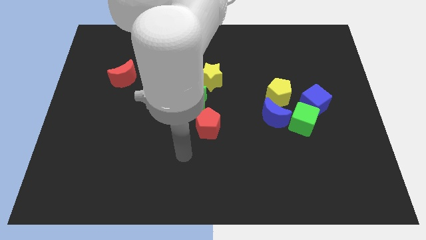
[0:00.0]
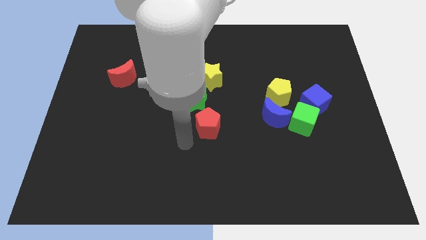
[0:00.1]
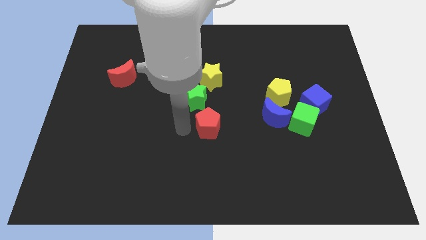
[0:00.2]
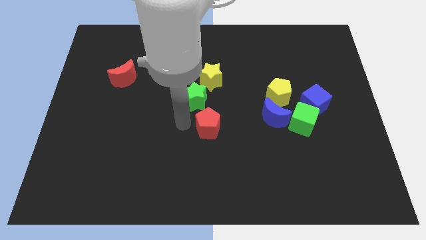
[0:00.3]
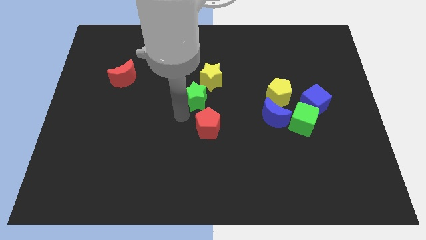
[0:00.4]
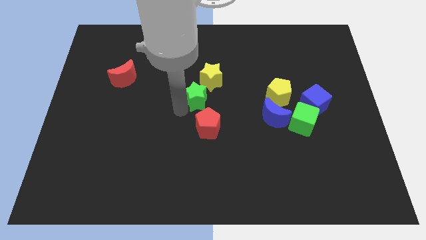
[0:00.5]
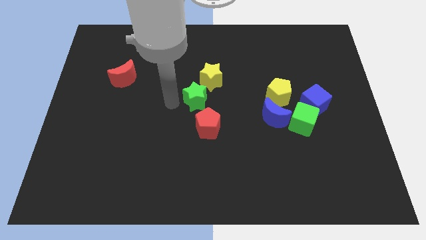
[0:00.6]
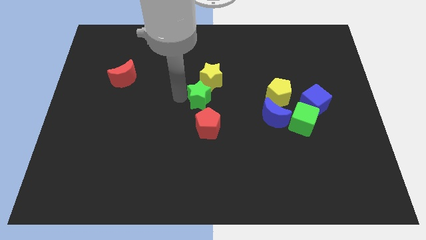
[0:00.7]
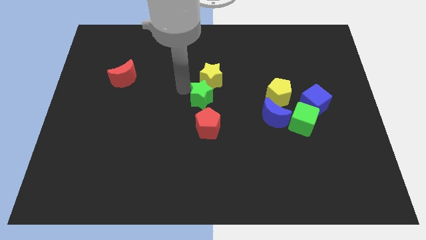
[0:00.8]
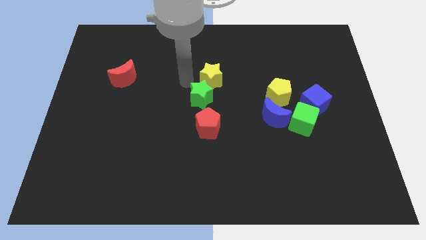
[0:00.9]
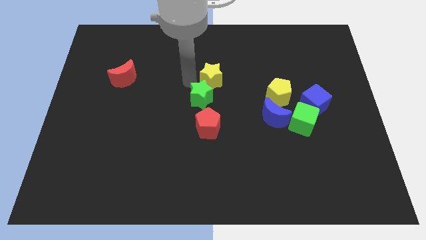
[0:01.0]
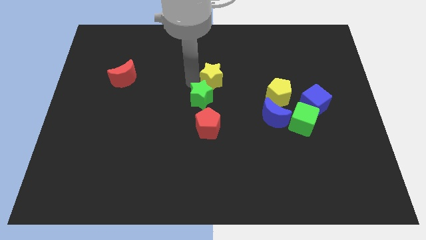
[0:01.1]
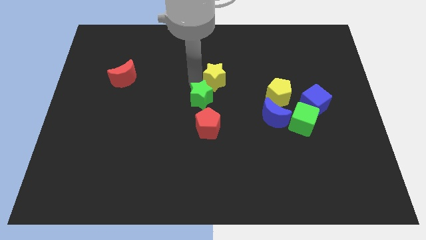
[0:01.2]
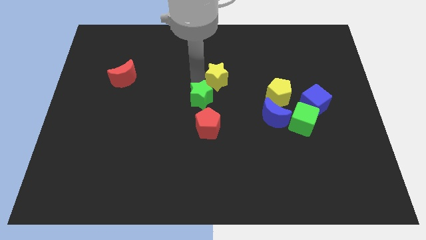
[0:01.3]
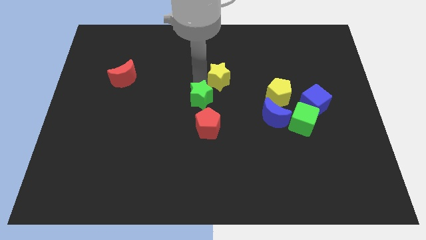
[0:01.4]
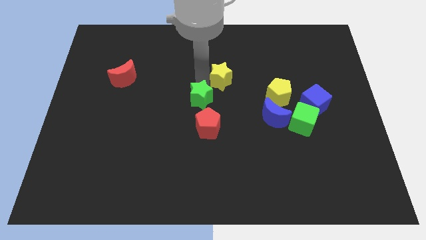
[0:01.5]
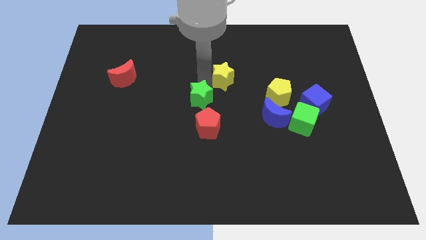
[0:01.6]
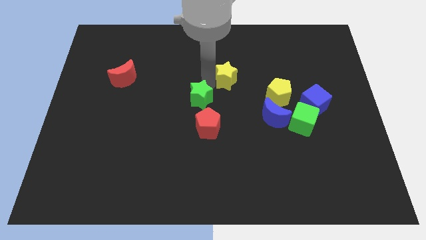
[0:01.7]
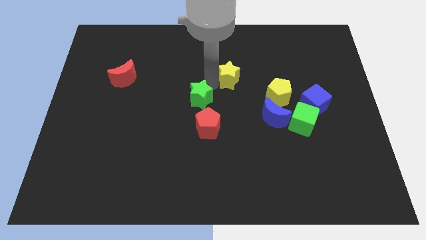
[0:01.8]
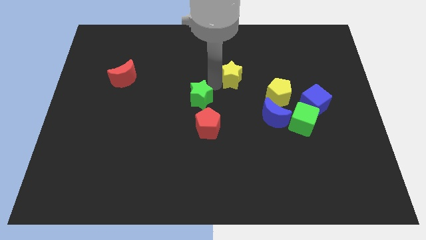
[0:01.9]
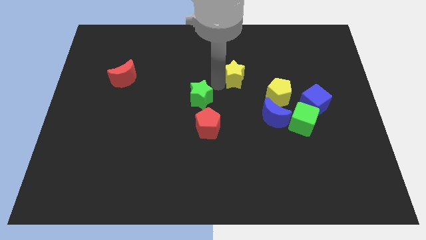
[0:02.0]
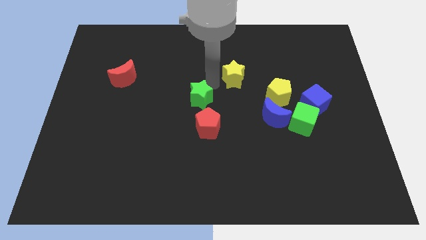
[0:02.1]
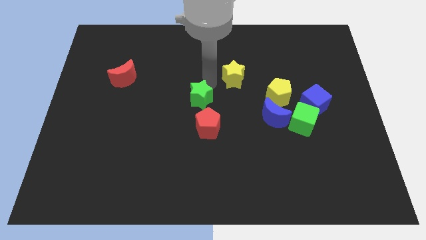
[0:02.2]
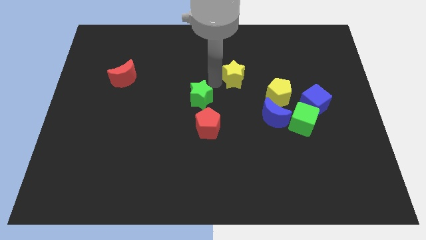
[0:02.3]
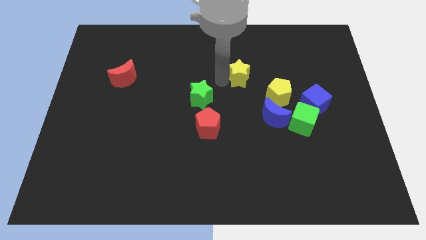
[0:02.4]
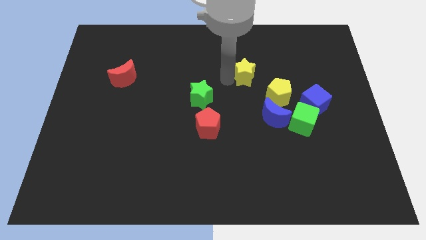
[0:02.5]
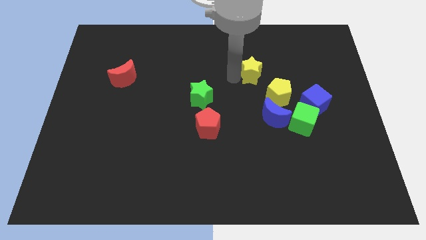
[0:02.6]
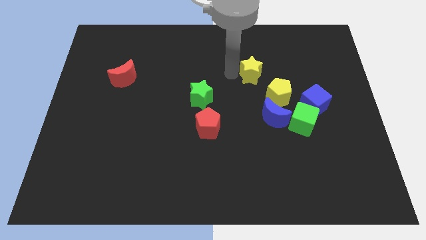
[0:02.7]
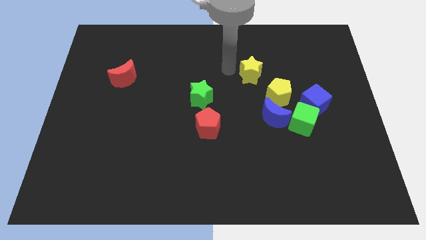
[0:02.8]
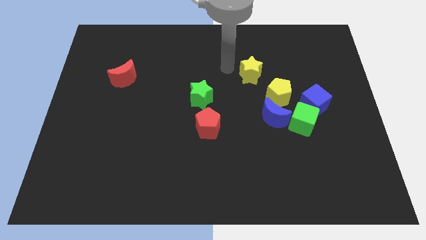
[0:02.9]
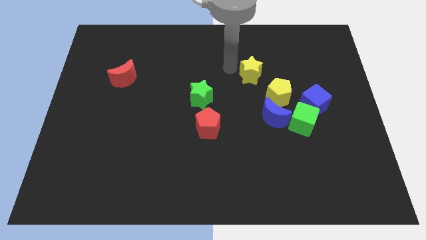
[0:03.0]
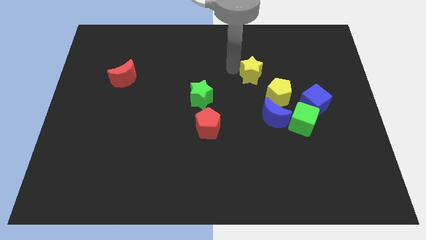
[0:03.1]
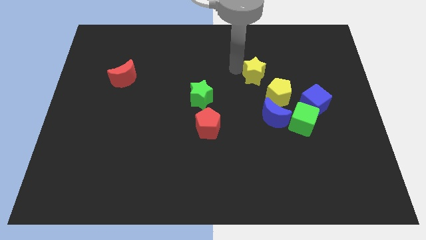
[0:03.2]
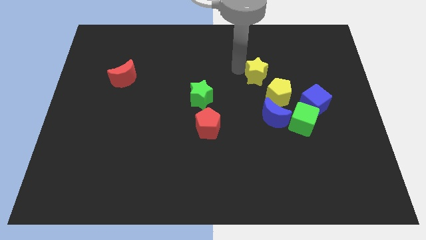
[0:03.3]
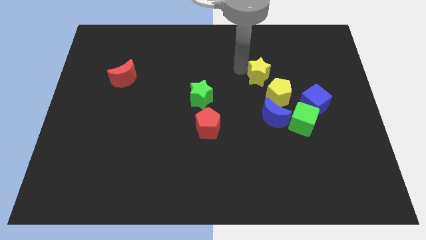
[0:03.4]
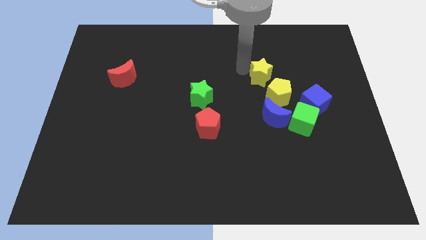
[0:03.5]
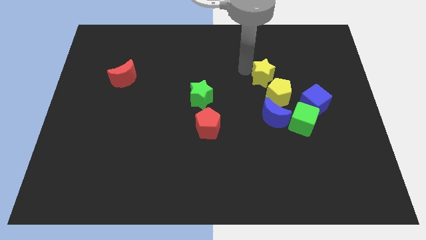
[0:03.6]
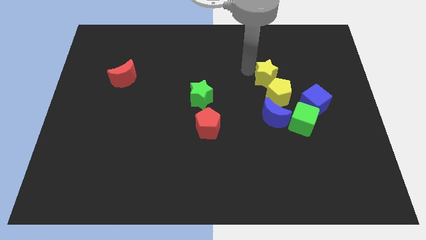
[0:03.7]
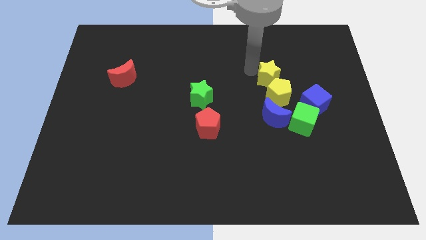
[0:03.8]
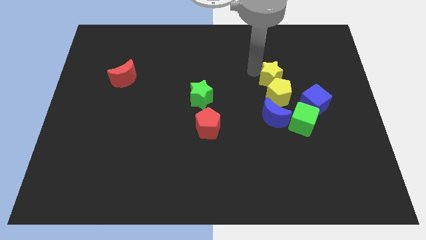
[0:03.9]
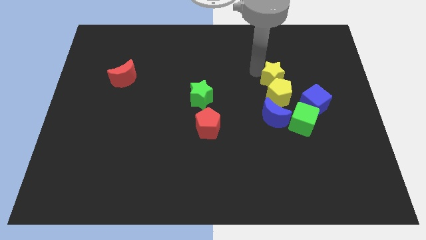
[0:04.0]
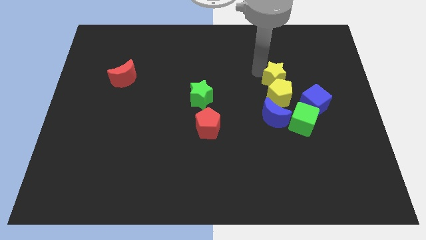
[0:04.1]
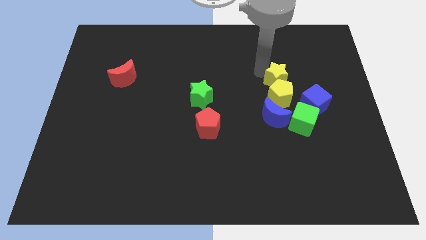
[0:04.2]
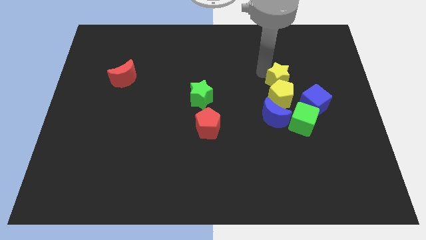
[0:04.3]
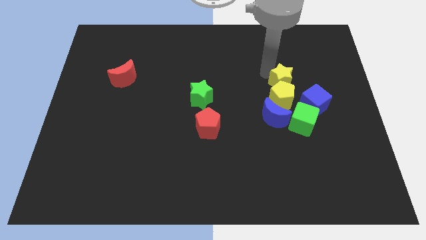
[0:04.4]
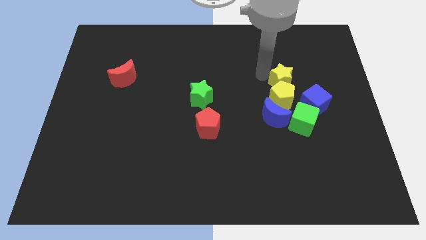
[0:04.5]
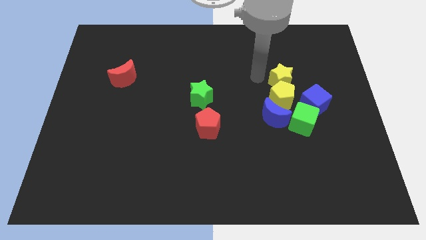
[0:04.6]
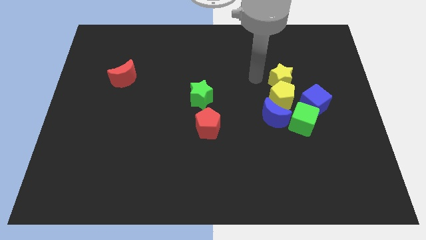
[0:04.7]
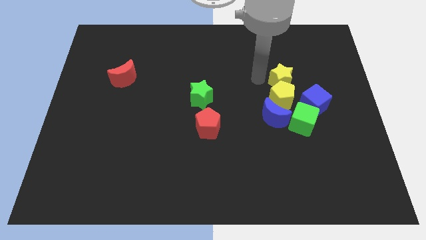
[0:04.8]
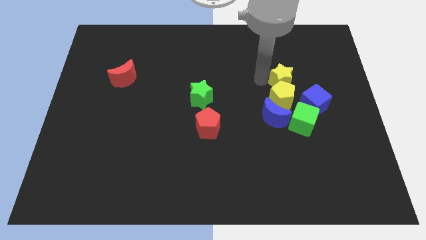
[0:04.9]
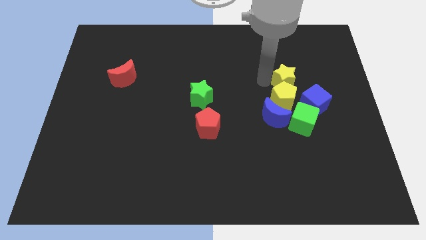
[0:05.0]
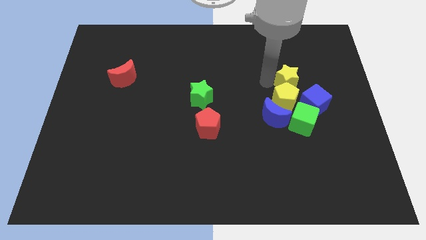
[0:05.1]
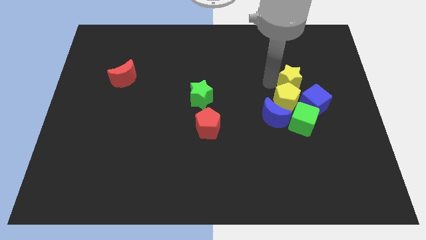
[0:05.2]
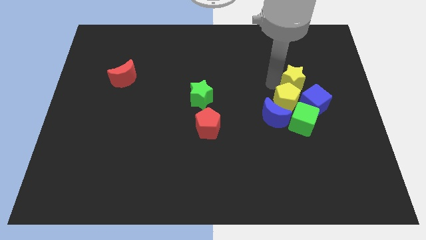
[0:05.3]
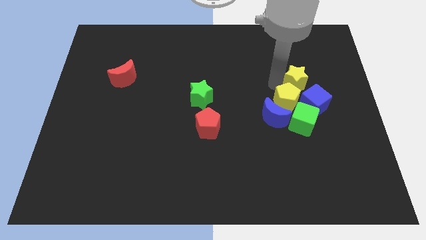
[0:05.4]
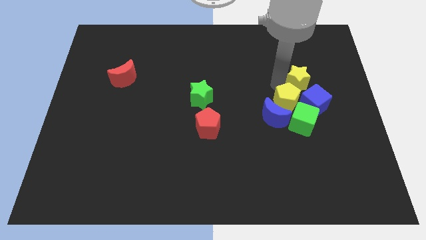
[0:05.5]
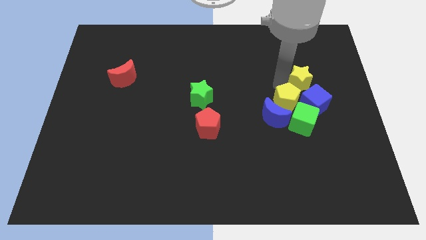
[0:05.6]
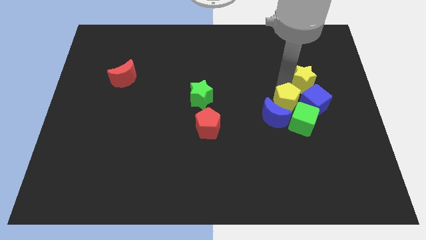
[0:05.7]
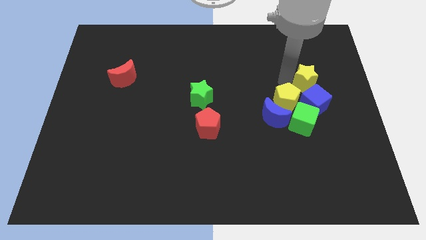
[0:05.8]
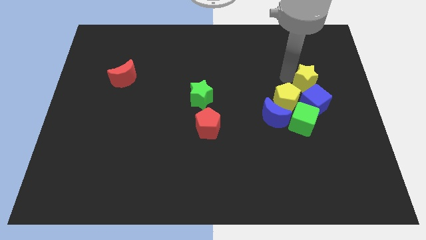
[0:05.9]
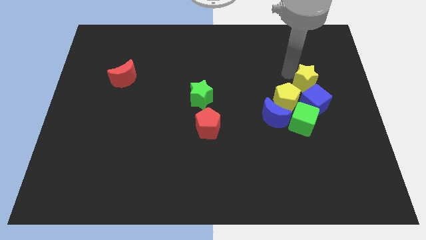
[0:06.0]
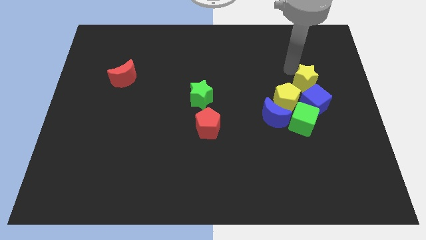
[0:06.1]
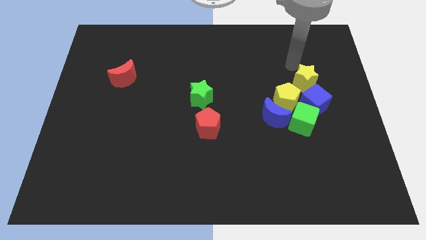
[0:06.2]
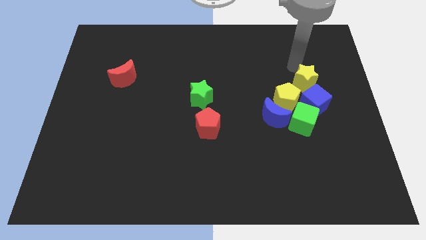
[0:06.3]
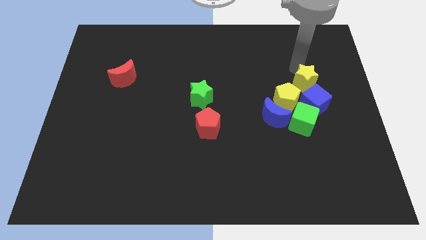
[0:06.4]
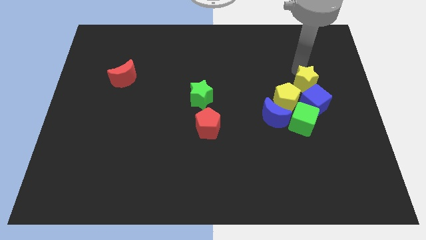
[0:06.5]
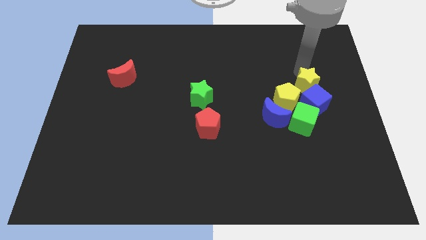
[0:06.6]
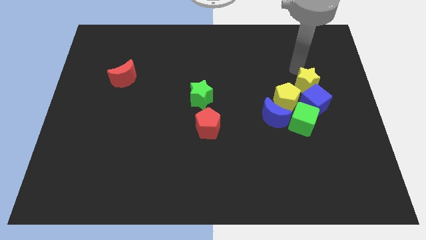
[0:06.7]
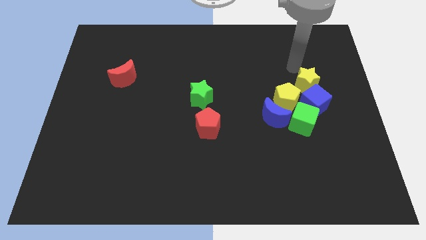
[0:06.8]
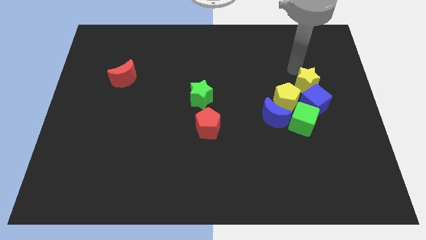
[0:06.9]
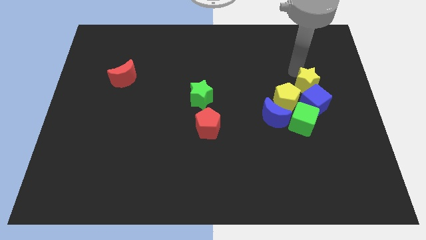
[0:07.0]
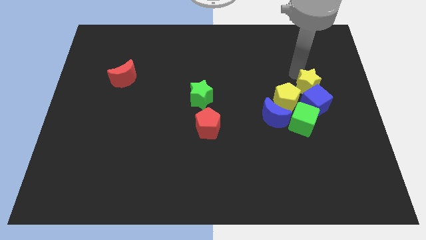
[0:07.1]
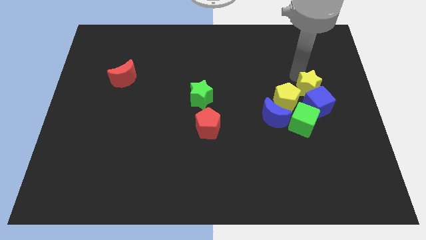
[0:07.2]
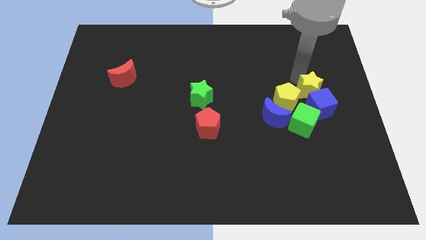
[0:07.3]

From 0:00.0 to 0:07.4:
put the yellow star to the top right of the green cube

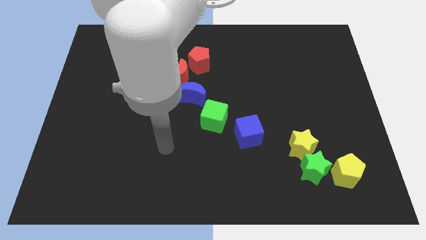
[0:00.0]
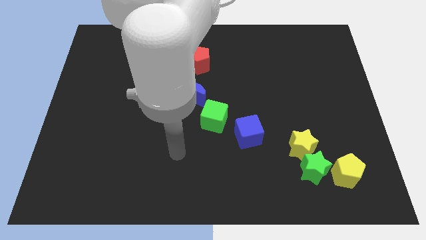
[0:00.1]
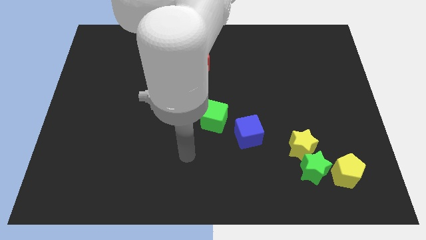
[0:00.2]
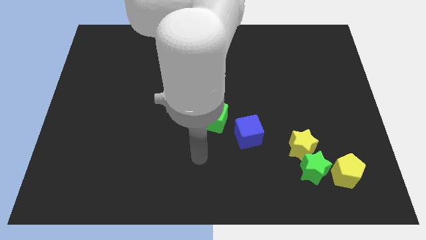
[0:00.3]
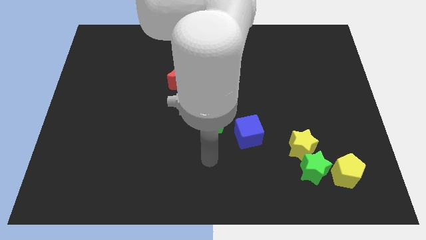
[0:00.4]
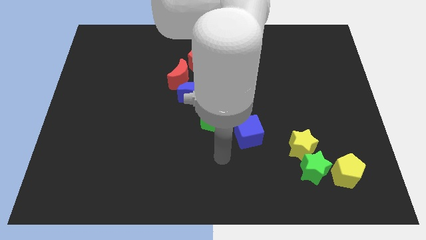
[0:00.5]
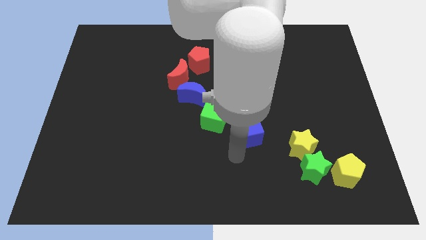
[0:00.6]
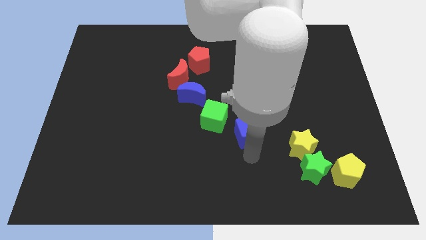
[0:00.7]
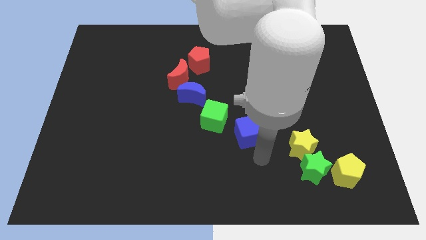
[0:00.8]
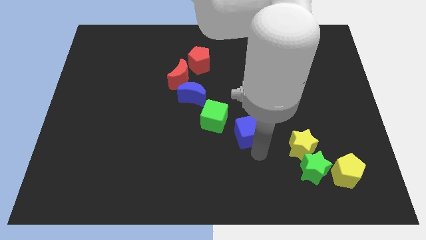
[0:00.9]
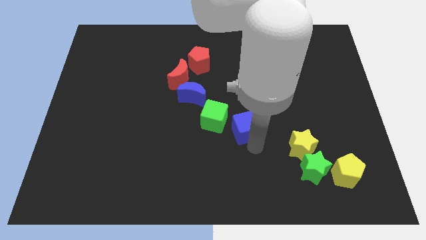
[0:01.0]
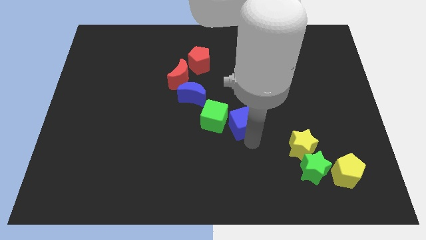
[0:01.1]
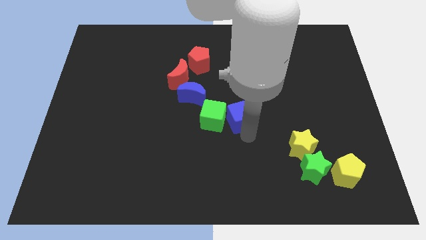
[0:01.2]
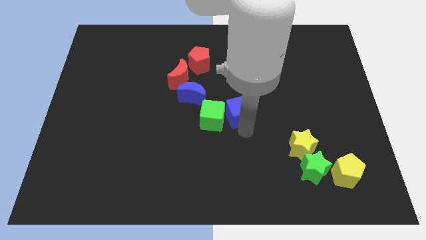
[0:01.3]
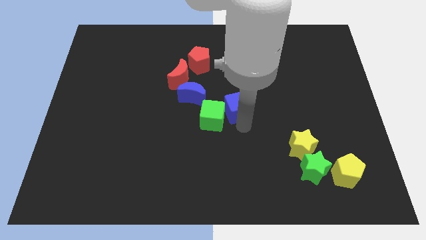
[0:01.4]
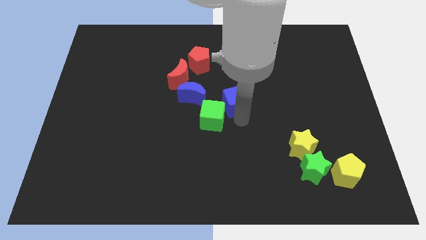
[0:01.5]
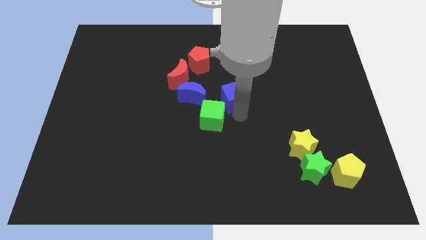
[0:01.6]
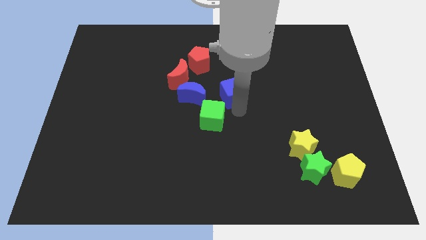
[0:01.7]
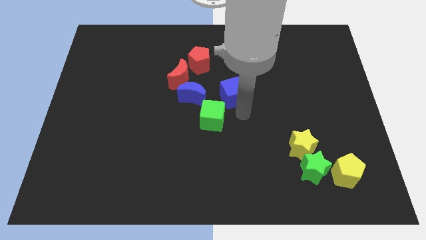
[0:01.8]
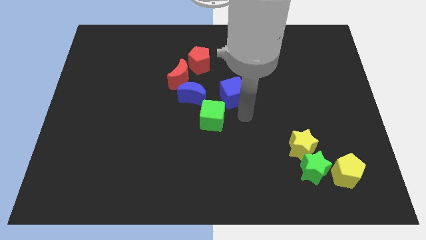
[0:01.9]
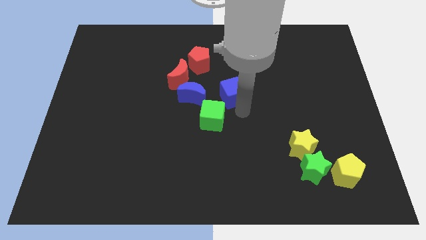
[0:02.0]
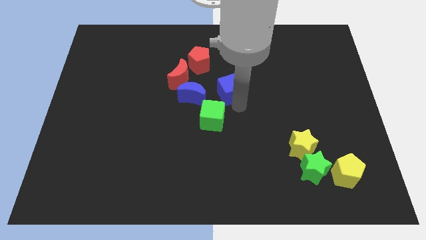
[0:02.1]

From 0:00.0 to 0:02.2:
put the blue cube to the right side of the red moon
